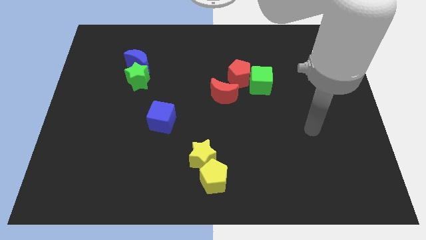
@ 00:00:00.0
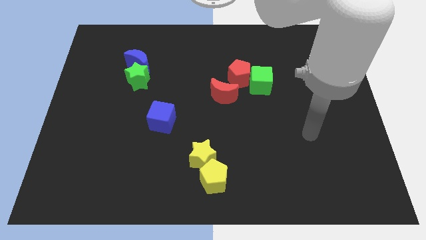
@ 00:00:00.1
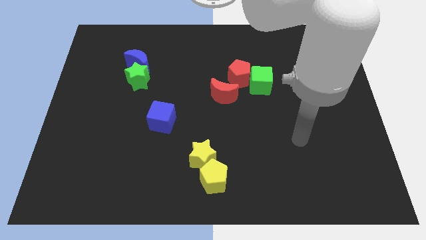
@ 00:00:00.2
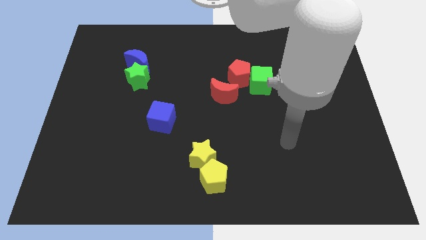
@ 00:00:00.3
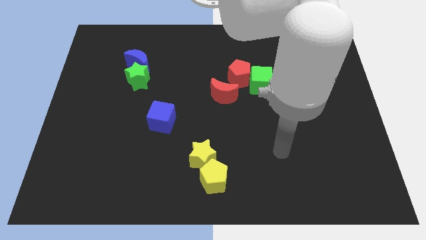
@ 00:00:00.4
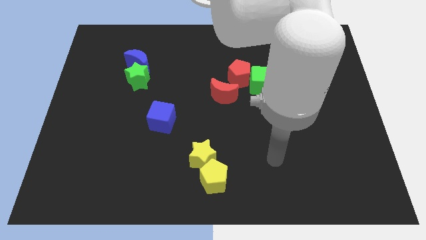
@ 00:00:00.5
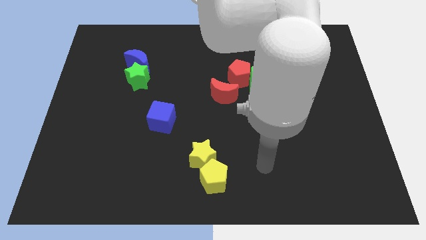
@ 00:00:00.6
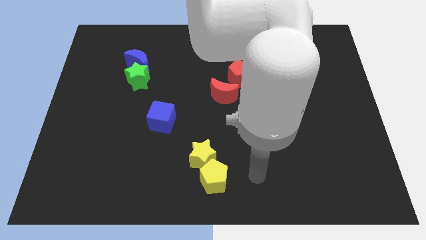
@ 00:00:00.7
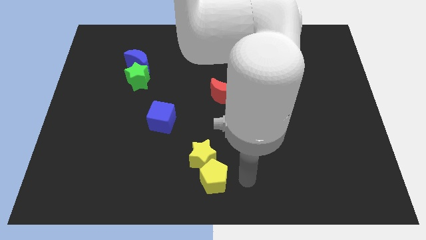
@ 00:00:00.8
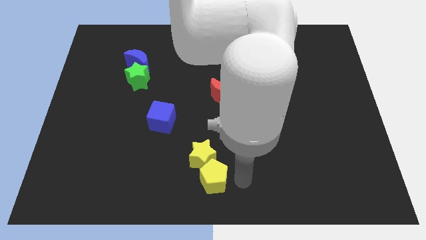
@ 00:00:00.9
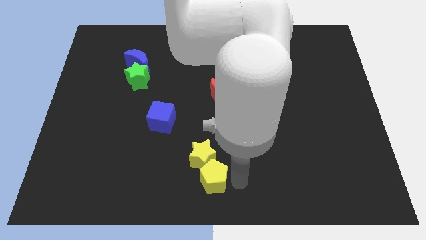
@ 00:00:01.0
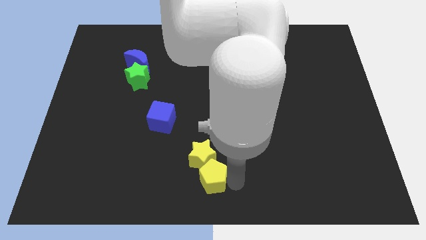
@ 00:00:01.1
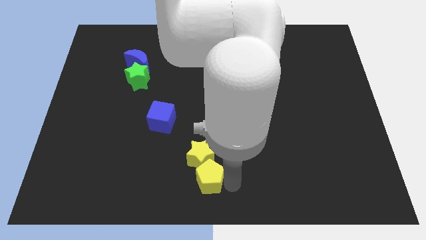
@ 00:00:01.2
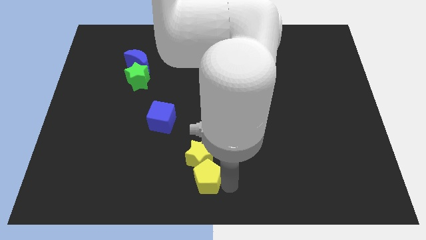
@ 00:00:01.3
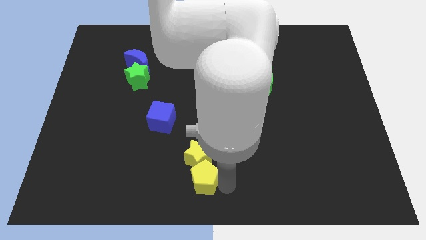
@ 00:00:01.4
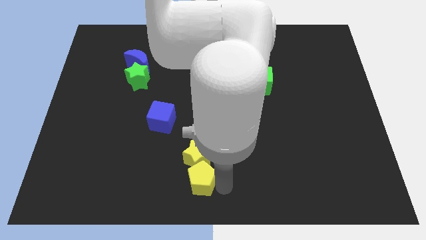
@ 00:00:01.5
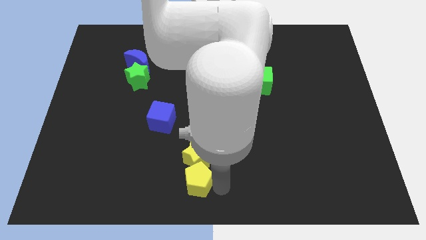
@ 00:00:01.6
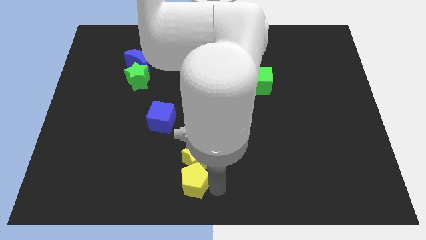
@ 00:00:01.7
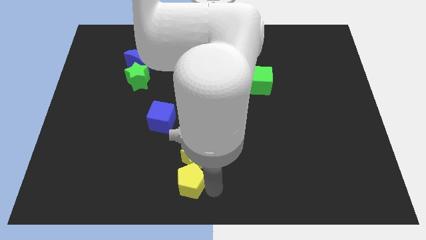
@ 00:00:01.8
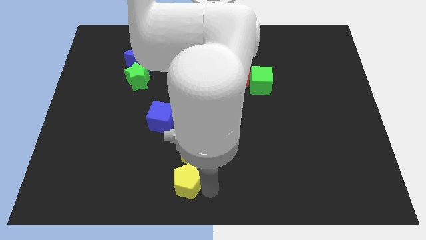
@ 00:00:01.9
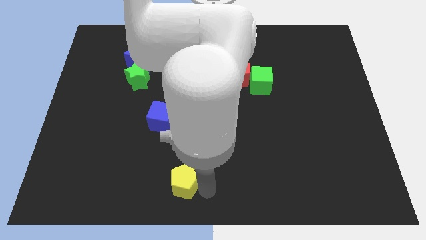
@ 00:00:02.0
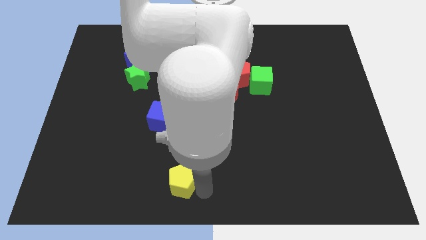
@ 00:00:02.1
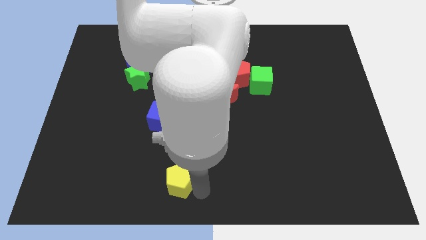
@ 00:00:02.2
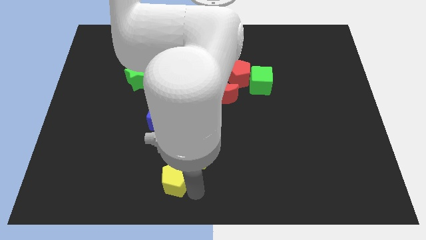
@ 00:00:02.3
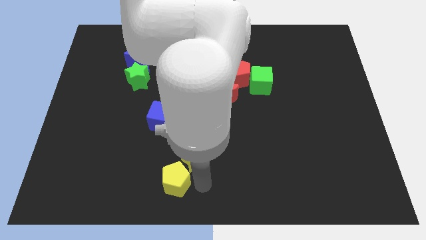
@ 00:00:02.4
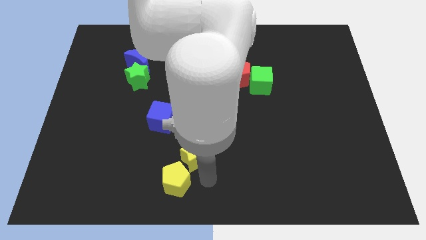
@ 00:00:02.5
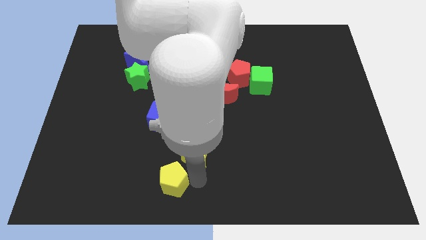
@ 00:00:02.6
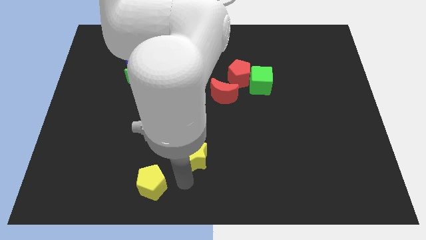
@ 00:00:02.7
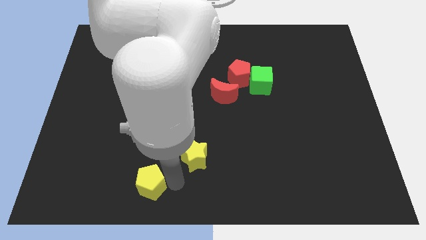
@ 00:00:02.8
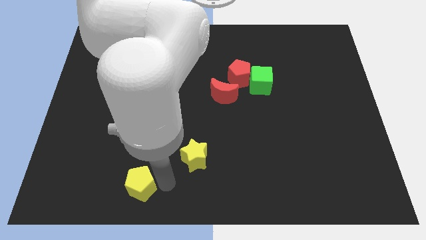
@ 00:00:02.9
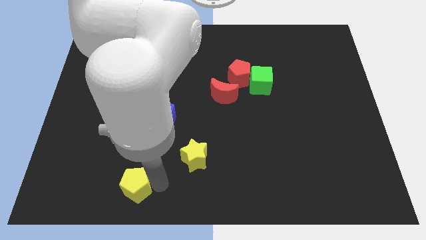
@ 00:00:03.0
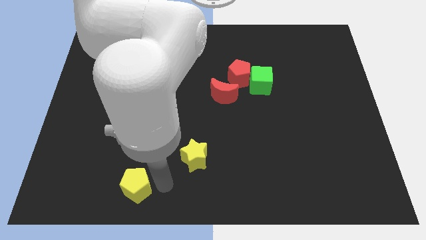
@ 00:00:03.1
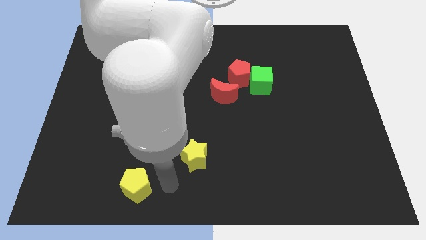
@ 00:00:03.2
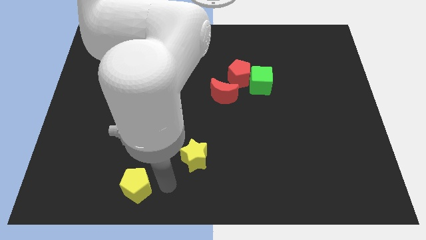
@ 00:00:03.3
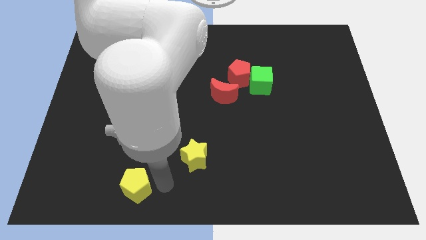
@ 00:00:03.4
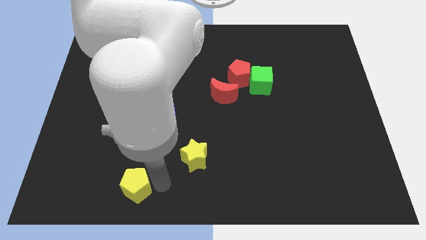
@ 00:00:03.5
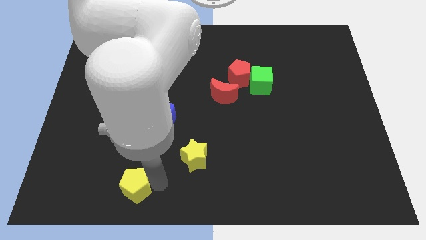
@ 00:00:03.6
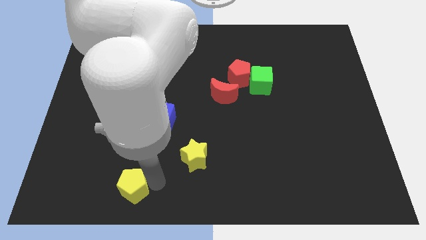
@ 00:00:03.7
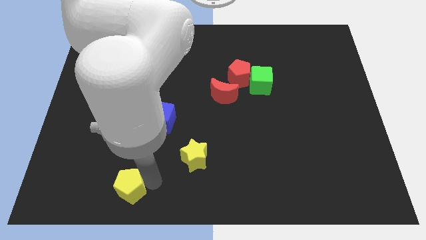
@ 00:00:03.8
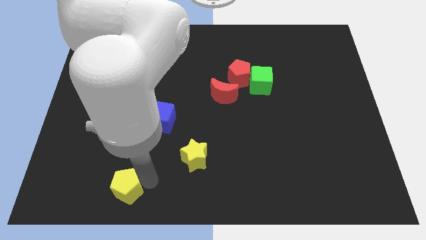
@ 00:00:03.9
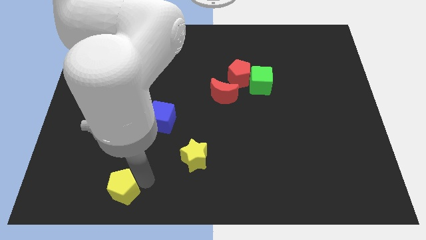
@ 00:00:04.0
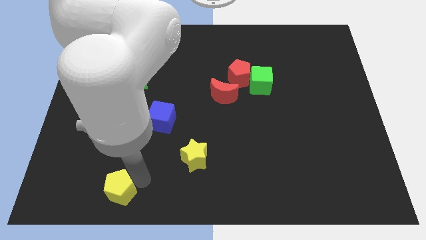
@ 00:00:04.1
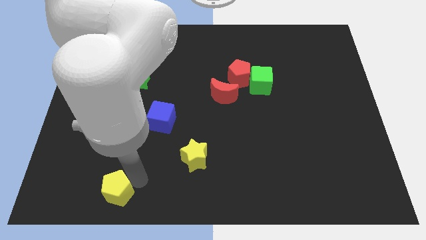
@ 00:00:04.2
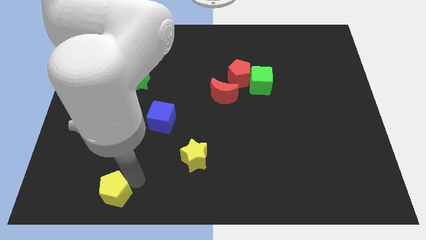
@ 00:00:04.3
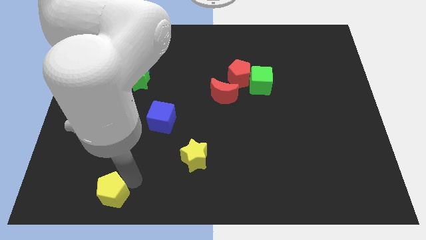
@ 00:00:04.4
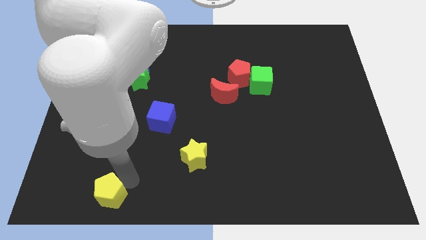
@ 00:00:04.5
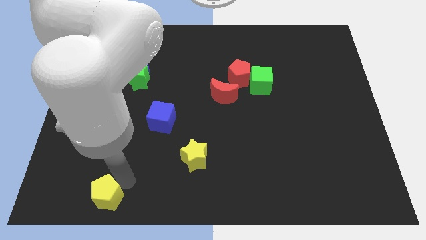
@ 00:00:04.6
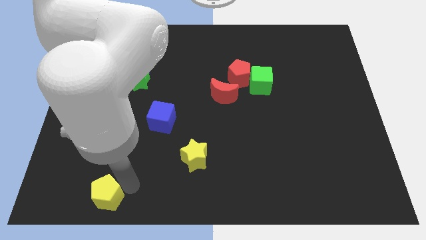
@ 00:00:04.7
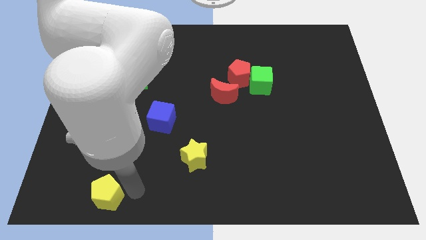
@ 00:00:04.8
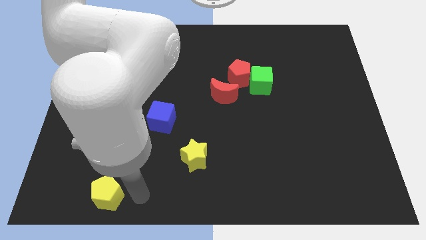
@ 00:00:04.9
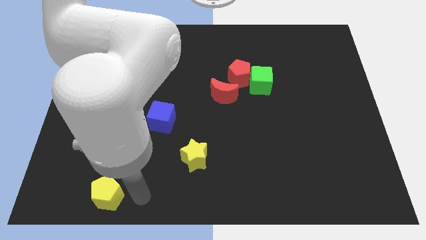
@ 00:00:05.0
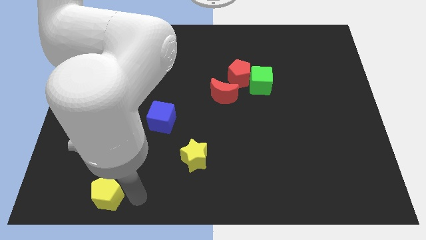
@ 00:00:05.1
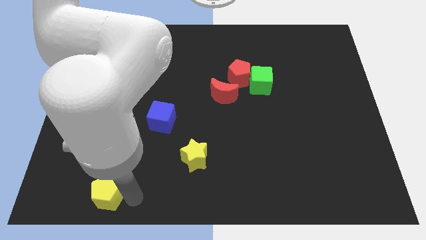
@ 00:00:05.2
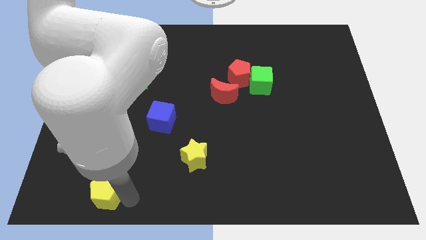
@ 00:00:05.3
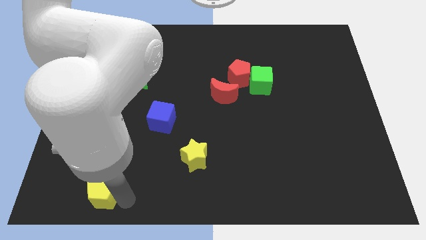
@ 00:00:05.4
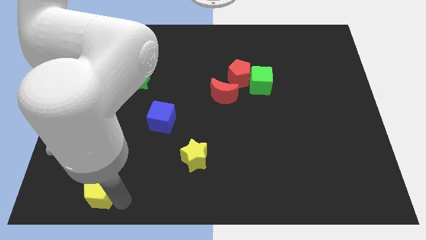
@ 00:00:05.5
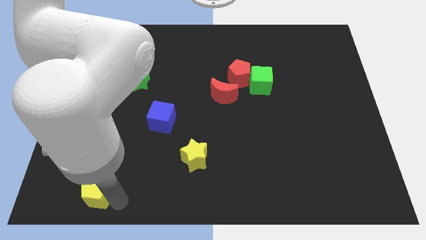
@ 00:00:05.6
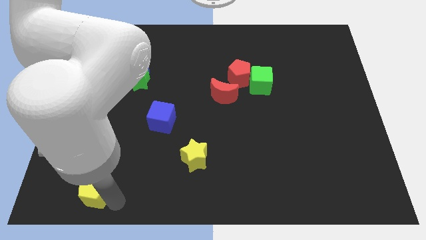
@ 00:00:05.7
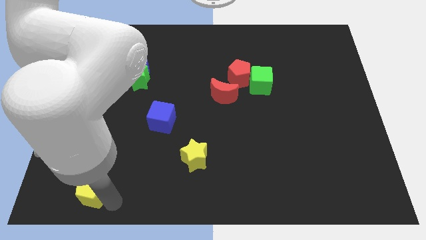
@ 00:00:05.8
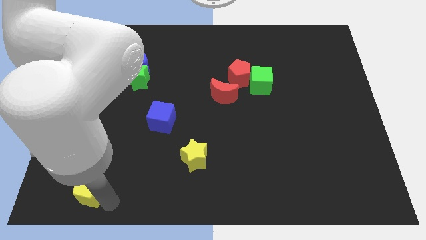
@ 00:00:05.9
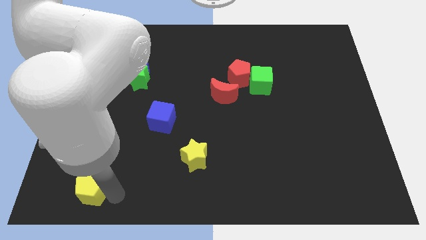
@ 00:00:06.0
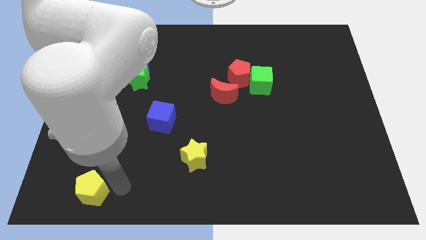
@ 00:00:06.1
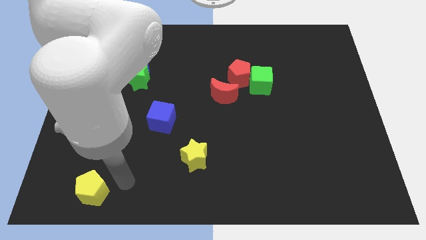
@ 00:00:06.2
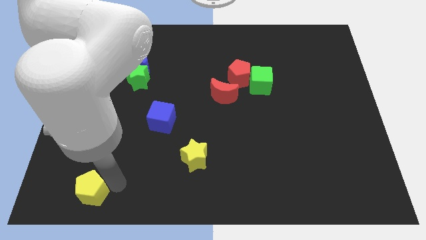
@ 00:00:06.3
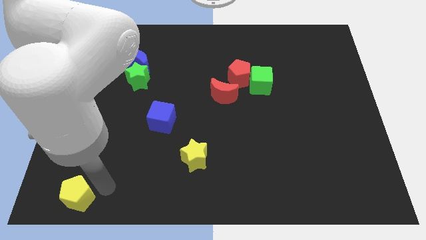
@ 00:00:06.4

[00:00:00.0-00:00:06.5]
move the yellow pentagon to the bottom left corner

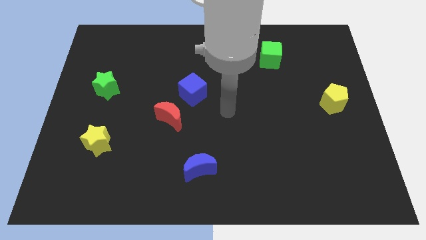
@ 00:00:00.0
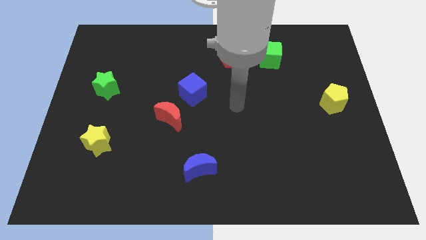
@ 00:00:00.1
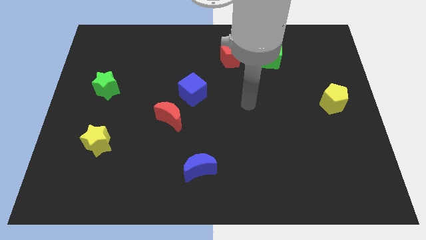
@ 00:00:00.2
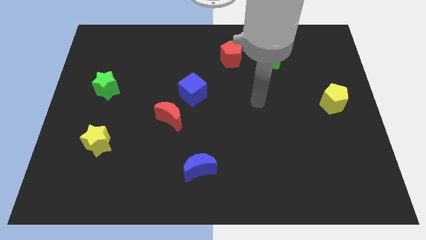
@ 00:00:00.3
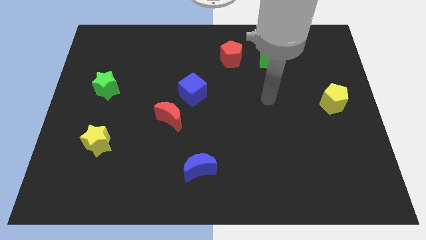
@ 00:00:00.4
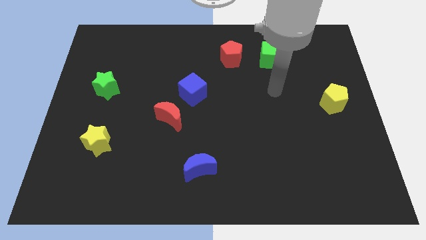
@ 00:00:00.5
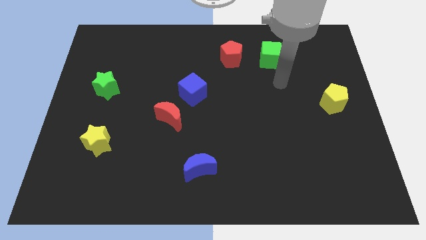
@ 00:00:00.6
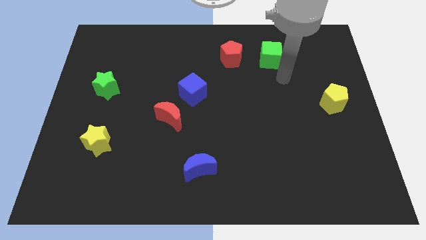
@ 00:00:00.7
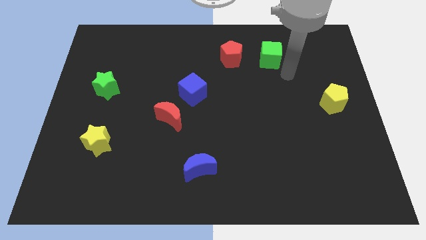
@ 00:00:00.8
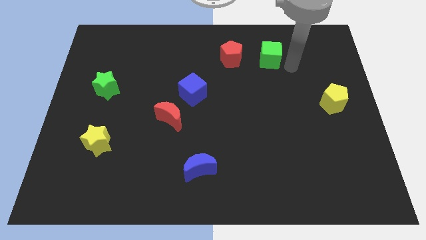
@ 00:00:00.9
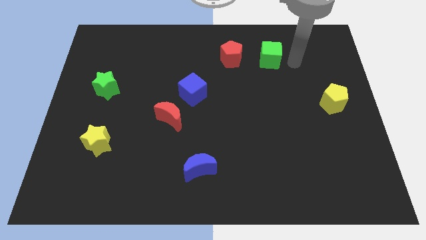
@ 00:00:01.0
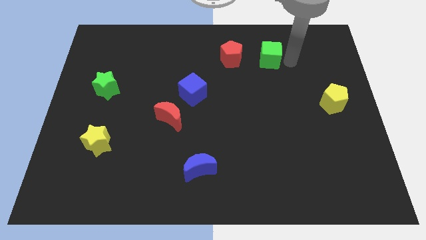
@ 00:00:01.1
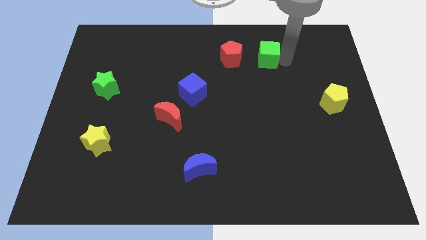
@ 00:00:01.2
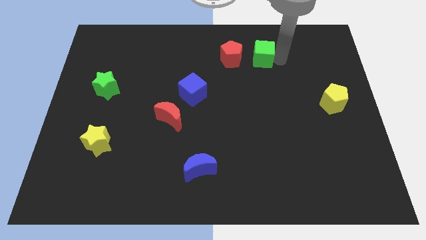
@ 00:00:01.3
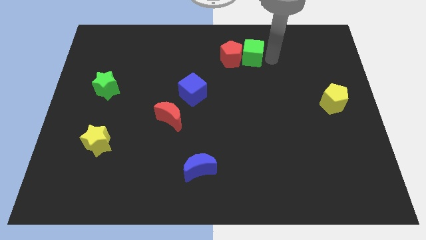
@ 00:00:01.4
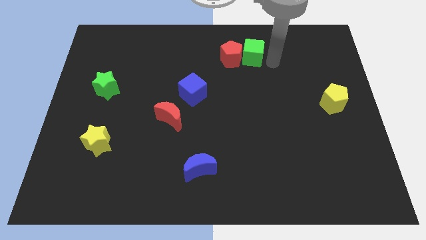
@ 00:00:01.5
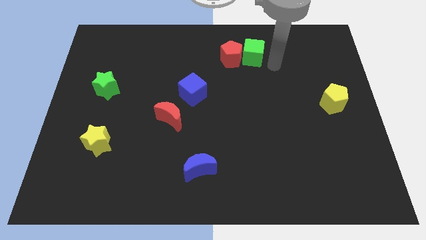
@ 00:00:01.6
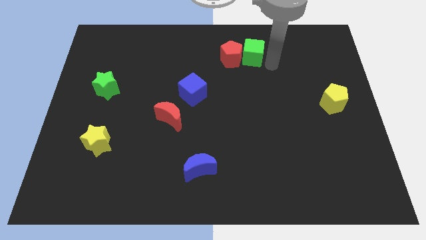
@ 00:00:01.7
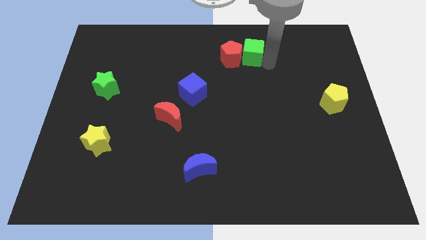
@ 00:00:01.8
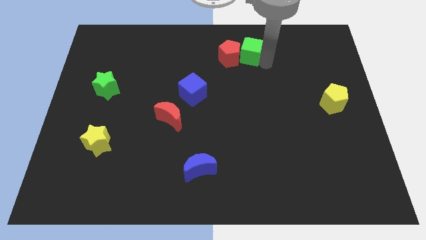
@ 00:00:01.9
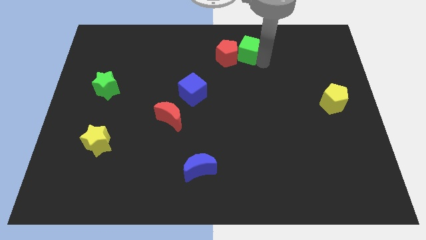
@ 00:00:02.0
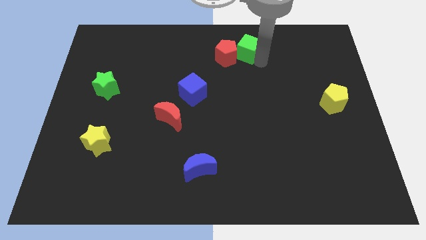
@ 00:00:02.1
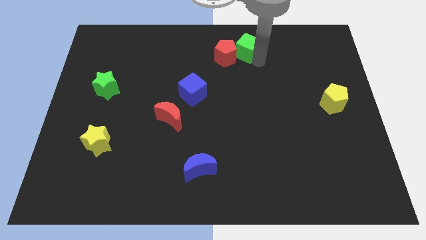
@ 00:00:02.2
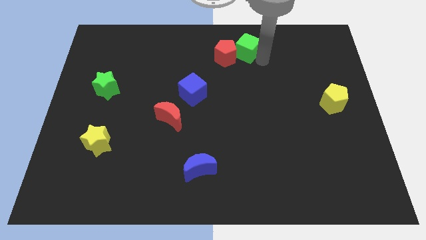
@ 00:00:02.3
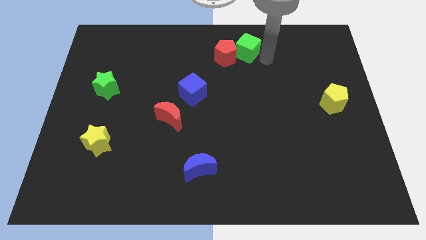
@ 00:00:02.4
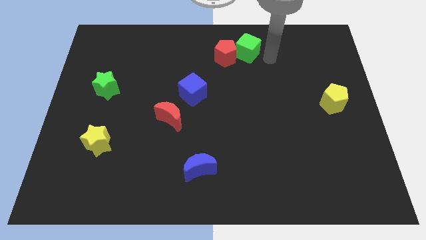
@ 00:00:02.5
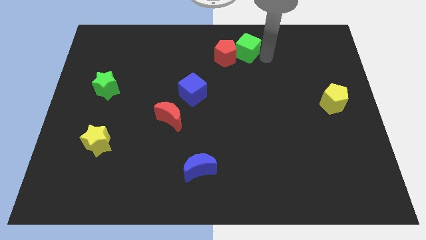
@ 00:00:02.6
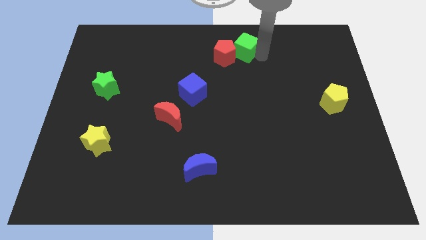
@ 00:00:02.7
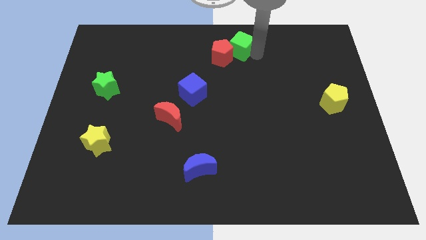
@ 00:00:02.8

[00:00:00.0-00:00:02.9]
push the green cube to the towards your base
